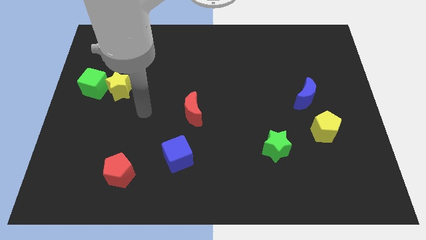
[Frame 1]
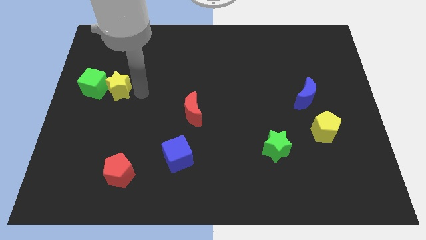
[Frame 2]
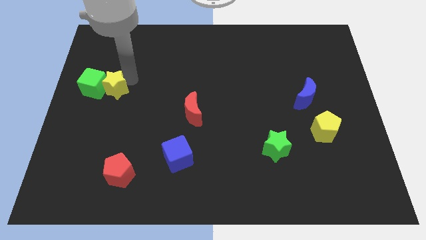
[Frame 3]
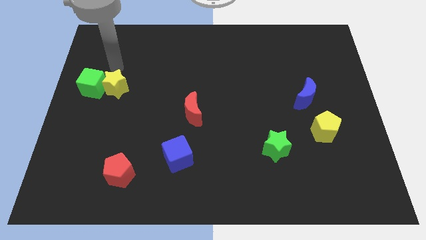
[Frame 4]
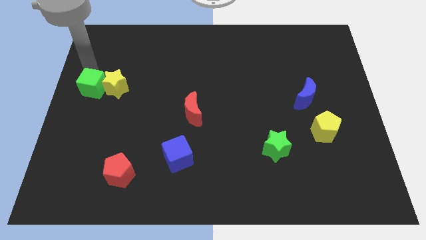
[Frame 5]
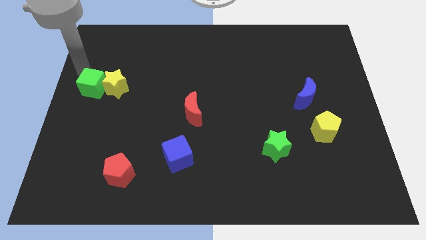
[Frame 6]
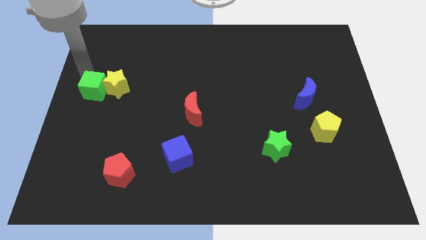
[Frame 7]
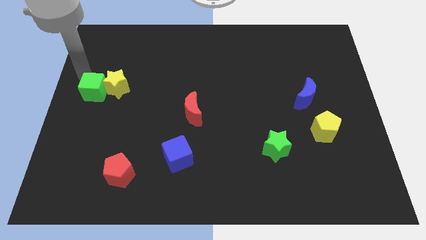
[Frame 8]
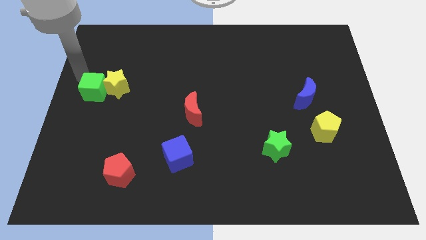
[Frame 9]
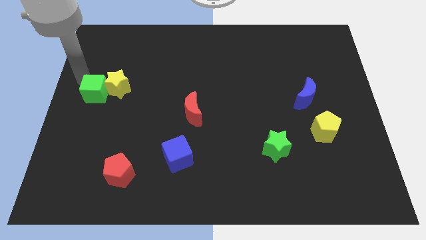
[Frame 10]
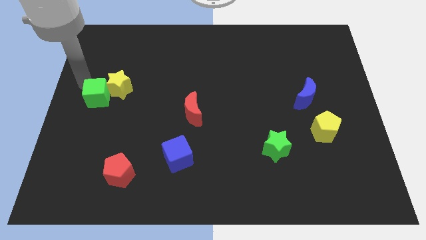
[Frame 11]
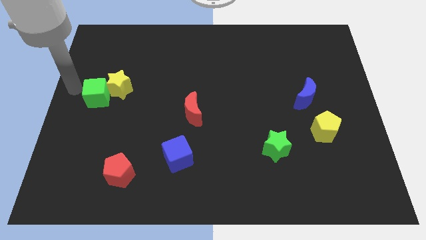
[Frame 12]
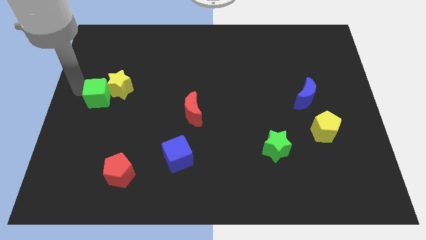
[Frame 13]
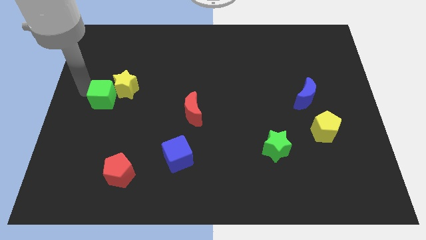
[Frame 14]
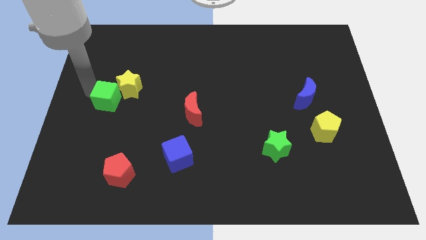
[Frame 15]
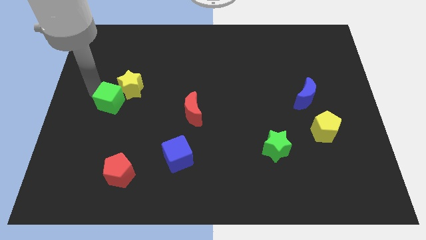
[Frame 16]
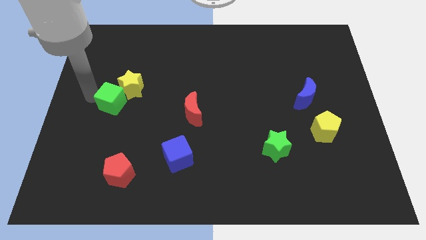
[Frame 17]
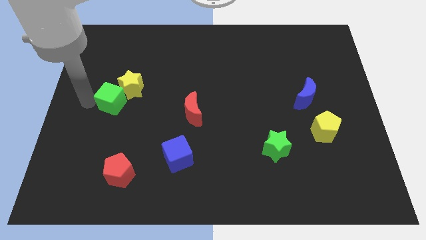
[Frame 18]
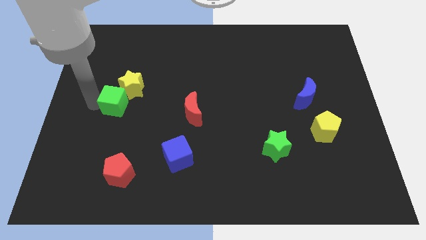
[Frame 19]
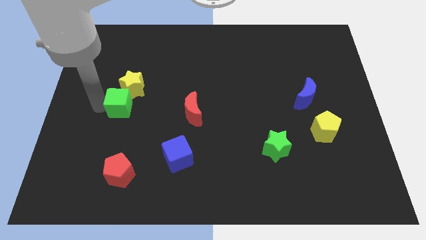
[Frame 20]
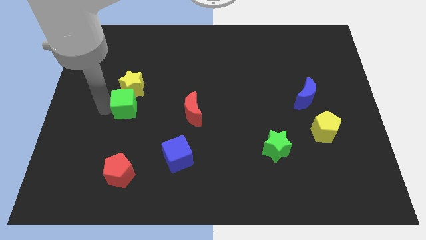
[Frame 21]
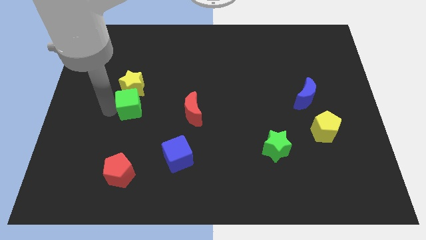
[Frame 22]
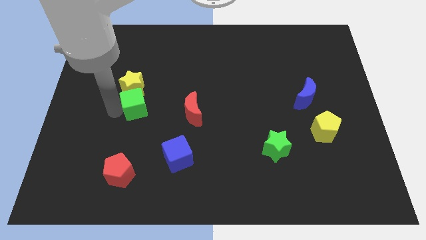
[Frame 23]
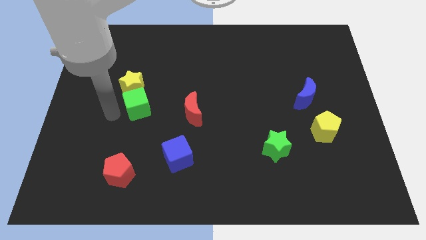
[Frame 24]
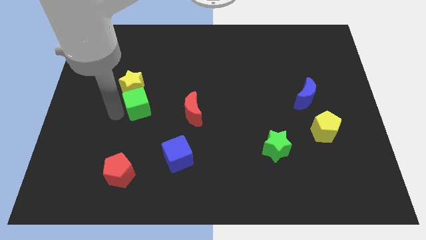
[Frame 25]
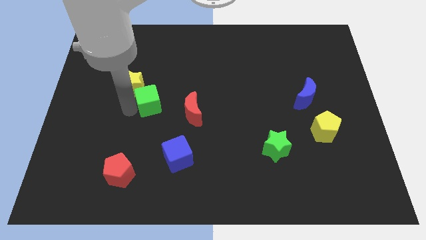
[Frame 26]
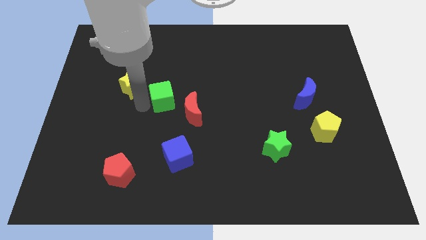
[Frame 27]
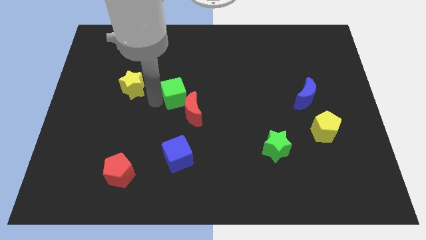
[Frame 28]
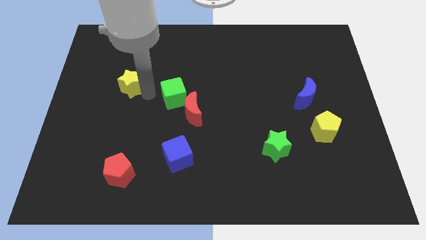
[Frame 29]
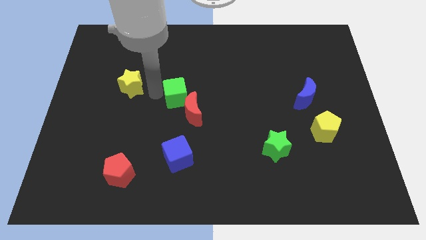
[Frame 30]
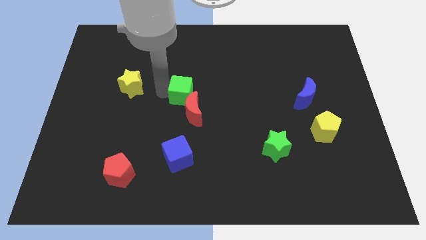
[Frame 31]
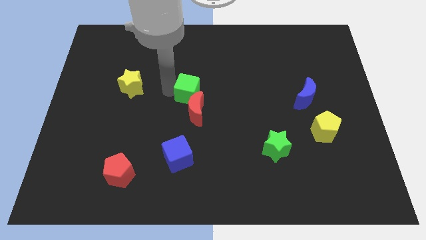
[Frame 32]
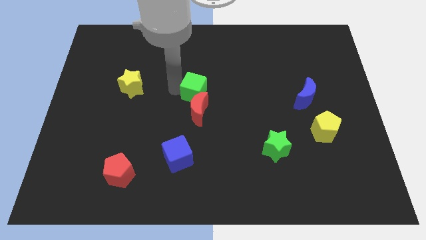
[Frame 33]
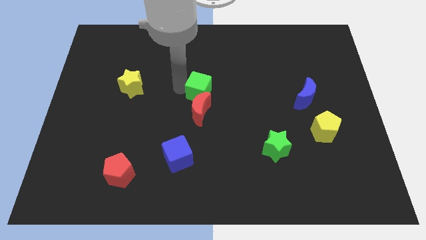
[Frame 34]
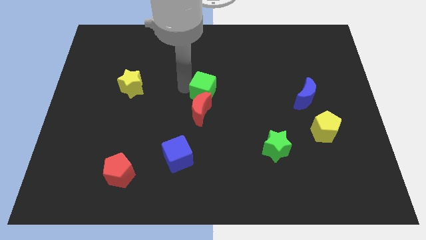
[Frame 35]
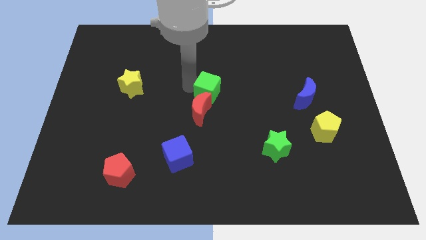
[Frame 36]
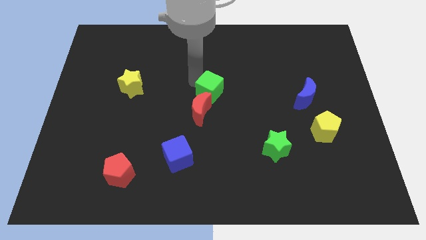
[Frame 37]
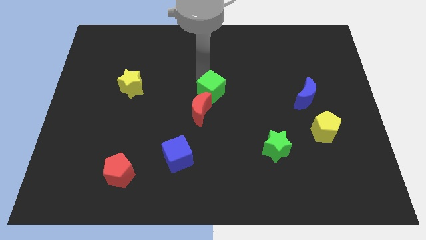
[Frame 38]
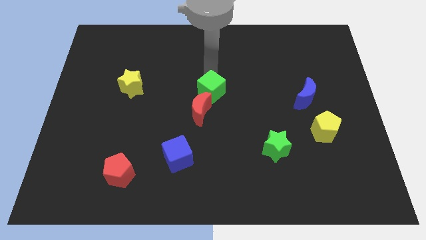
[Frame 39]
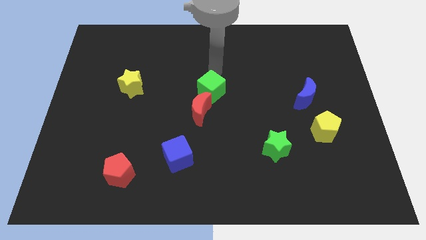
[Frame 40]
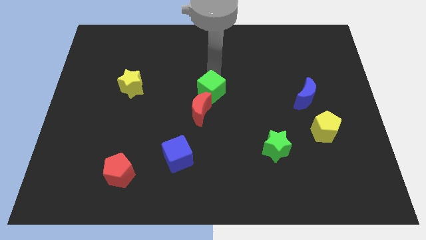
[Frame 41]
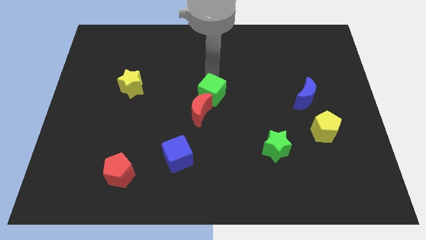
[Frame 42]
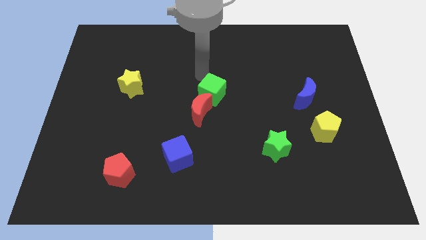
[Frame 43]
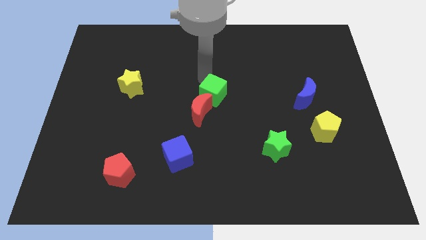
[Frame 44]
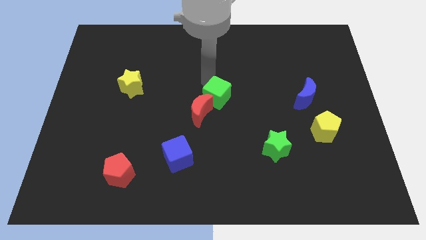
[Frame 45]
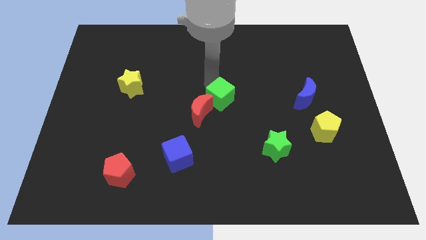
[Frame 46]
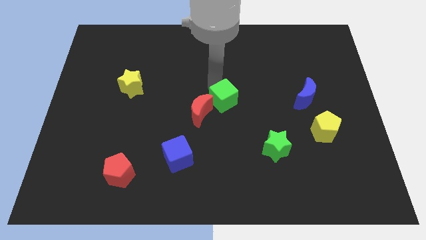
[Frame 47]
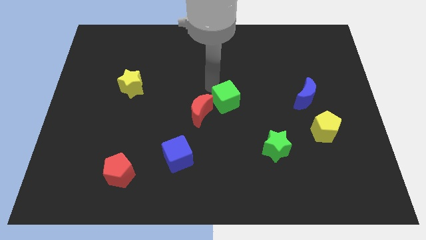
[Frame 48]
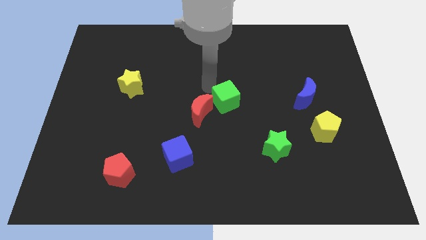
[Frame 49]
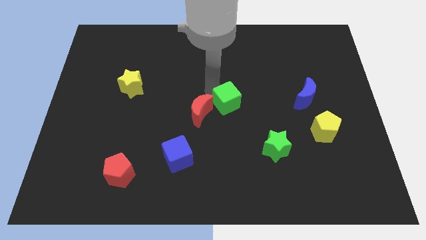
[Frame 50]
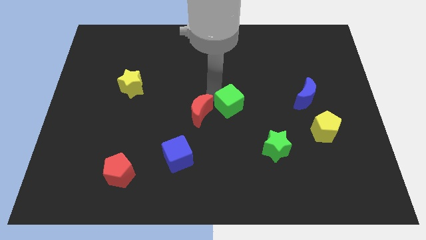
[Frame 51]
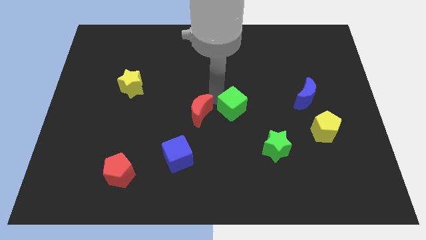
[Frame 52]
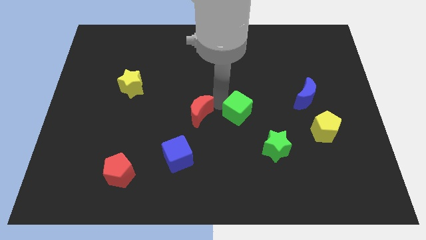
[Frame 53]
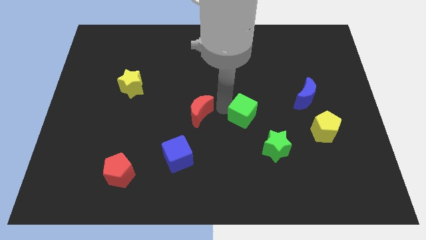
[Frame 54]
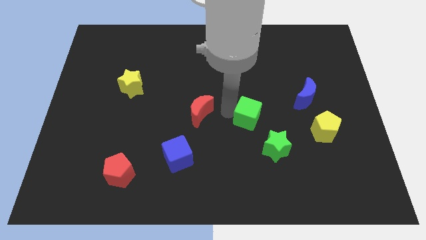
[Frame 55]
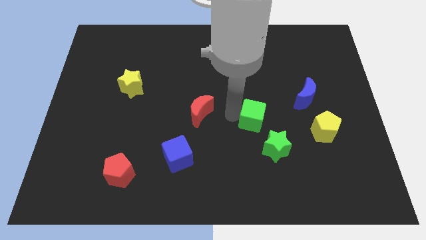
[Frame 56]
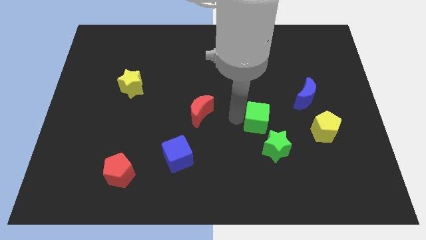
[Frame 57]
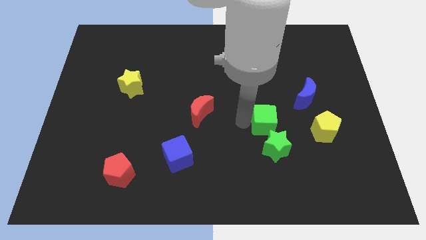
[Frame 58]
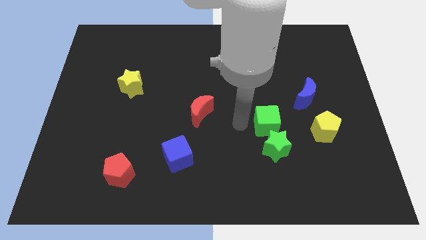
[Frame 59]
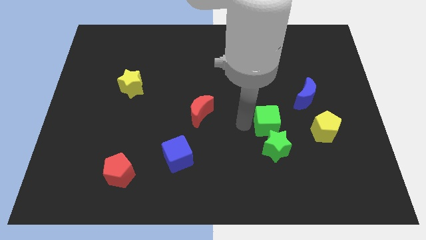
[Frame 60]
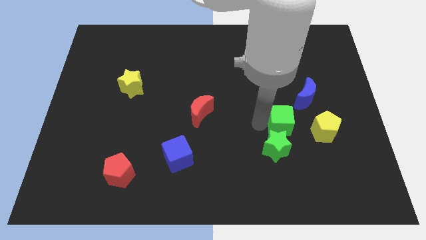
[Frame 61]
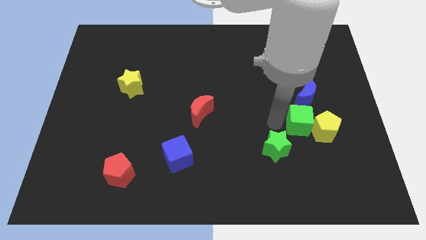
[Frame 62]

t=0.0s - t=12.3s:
put the green cube close to the yellow pentagon

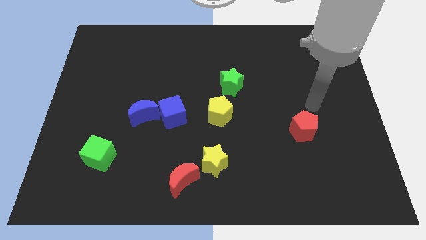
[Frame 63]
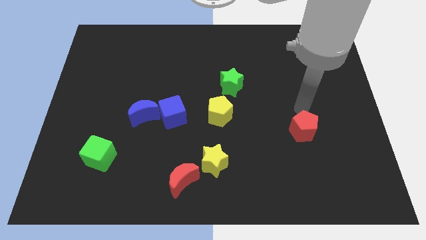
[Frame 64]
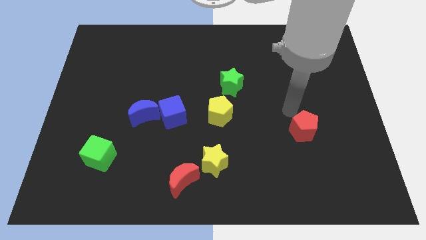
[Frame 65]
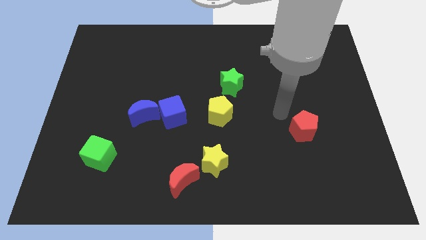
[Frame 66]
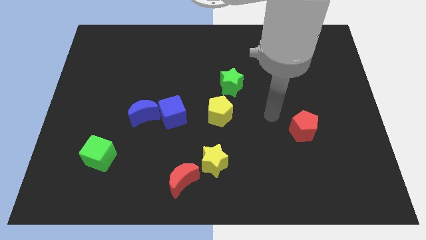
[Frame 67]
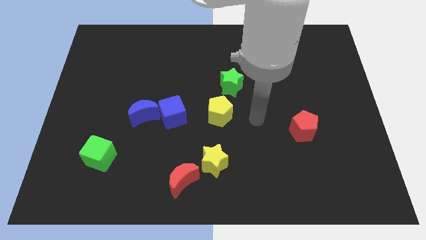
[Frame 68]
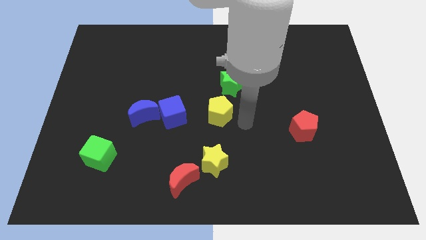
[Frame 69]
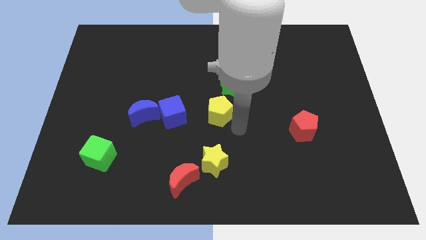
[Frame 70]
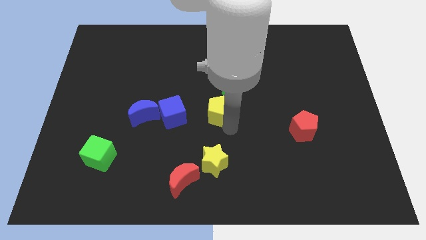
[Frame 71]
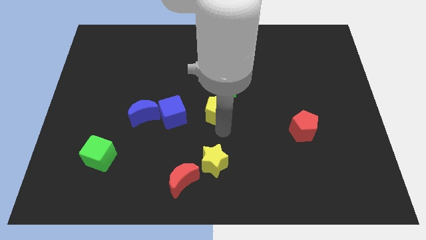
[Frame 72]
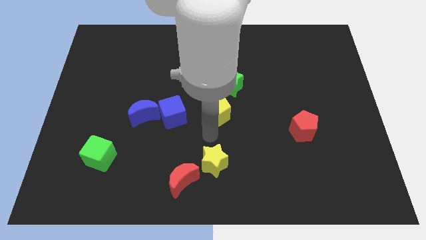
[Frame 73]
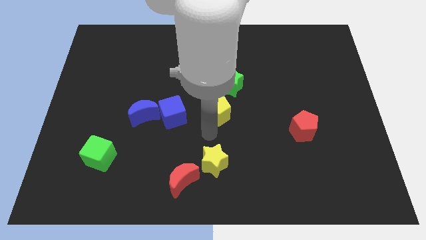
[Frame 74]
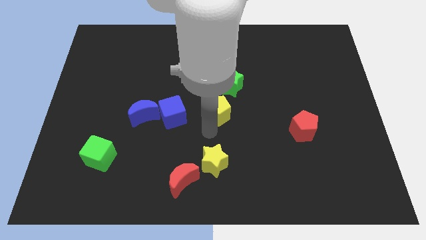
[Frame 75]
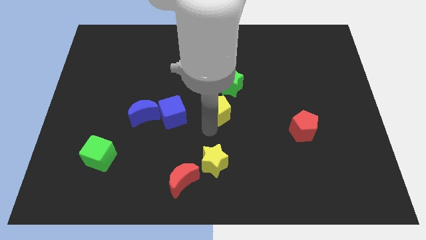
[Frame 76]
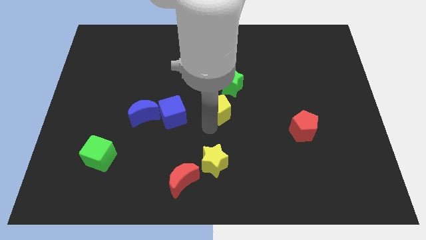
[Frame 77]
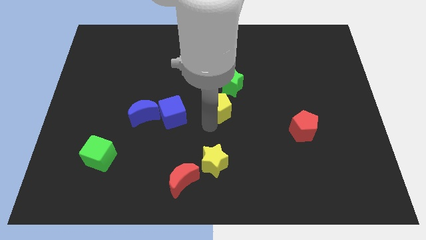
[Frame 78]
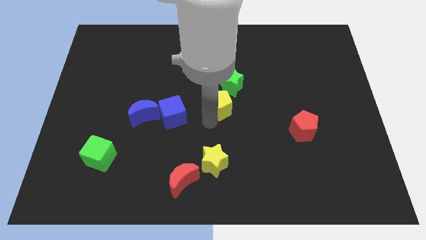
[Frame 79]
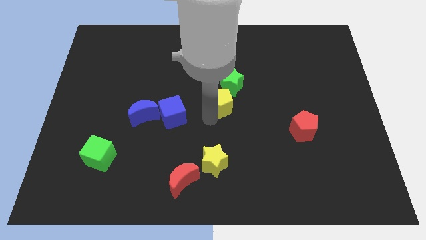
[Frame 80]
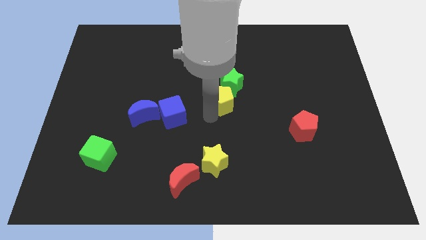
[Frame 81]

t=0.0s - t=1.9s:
put the yellow pentagon to the green star
